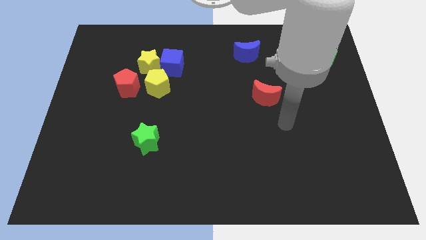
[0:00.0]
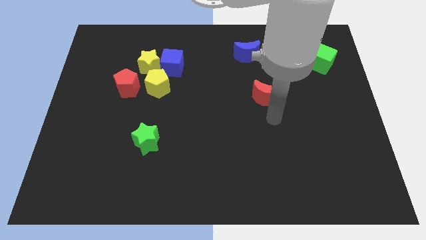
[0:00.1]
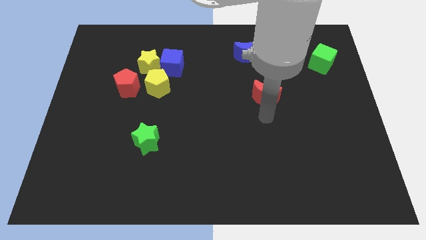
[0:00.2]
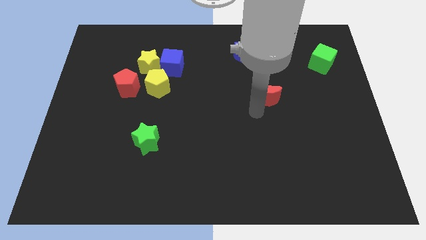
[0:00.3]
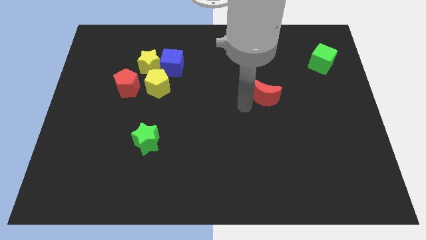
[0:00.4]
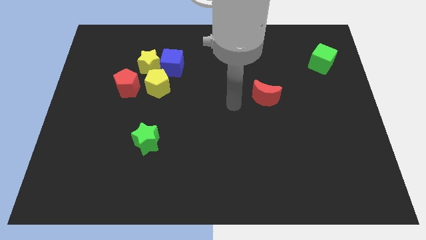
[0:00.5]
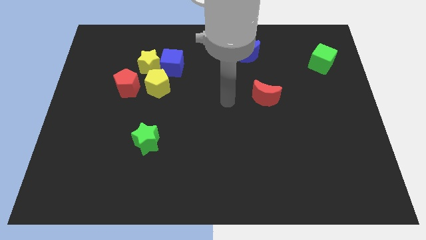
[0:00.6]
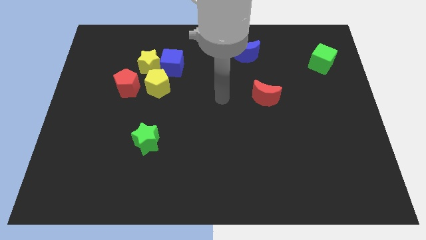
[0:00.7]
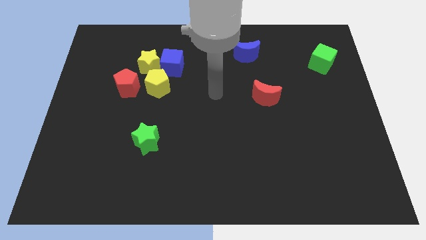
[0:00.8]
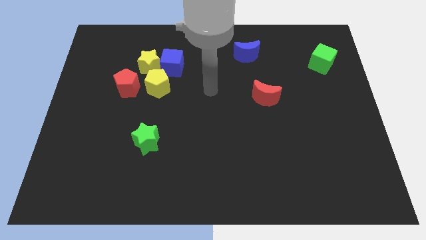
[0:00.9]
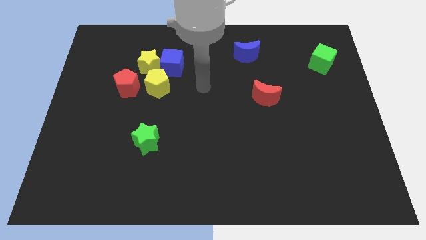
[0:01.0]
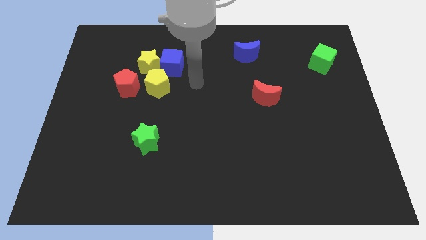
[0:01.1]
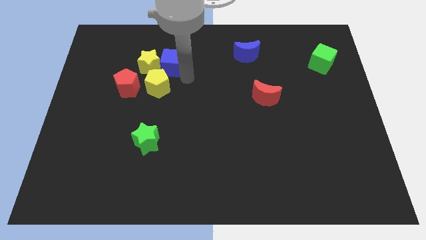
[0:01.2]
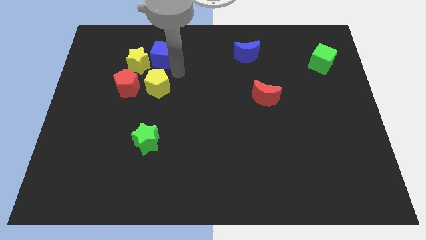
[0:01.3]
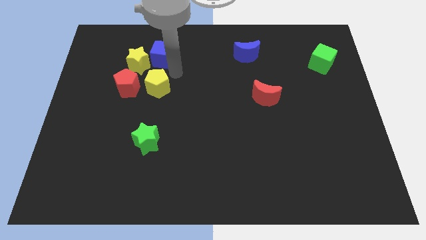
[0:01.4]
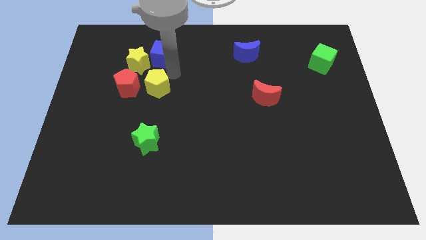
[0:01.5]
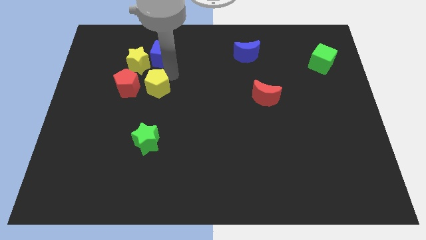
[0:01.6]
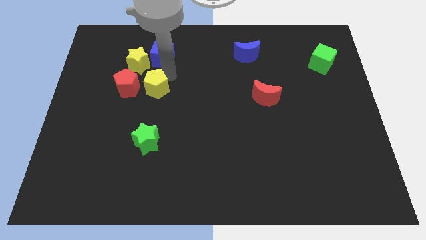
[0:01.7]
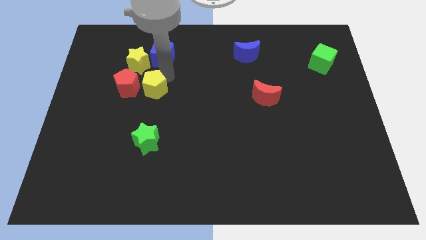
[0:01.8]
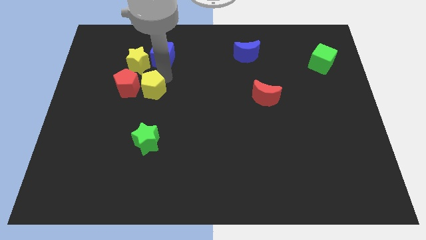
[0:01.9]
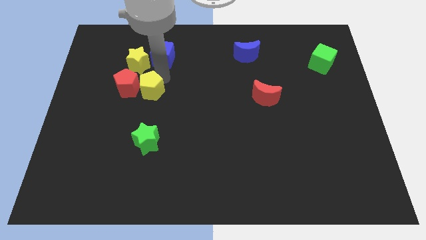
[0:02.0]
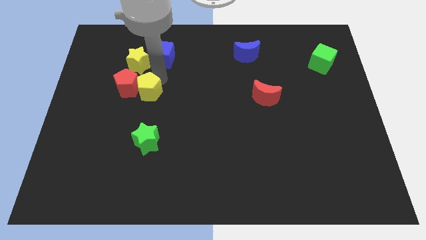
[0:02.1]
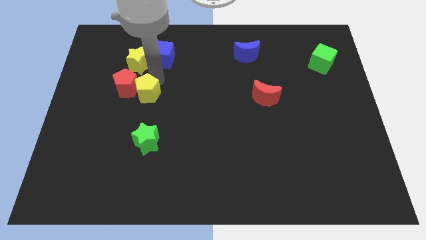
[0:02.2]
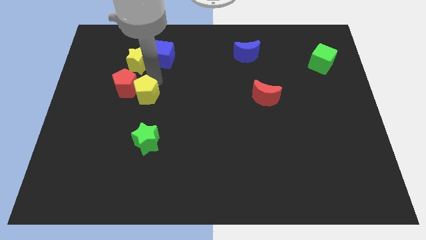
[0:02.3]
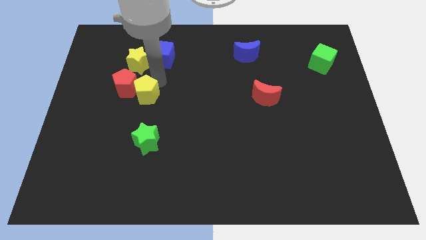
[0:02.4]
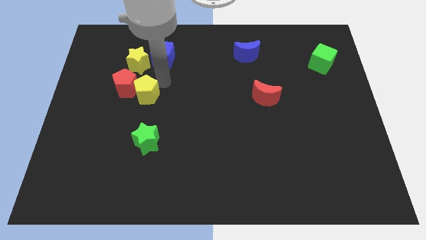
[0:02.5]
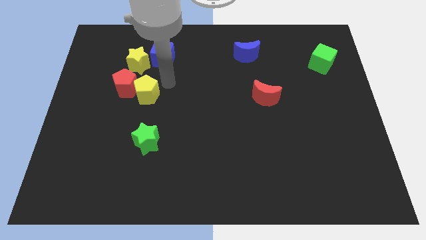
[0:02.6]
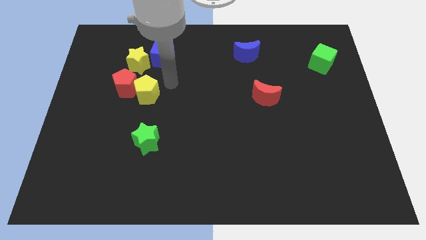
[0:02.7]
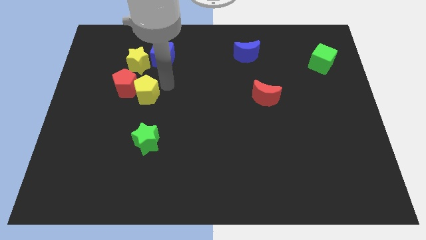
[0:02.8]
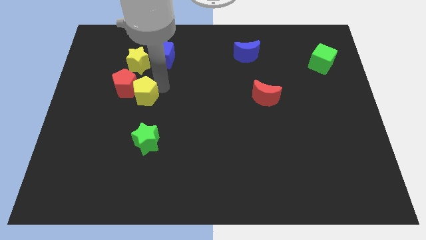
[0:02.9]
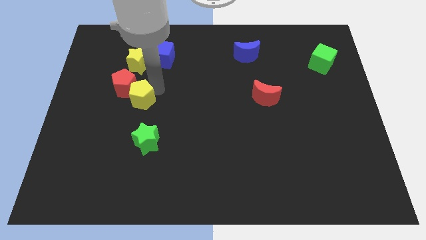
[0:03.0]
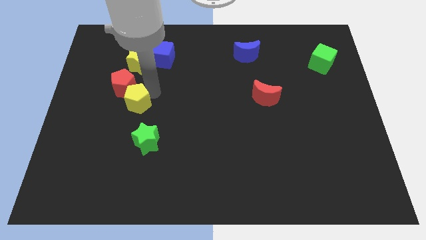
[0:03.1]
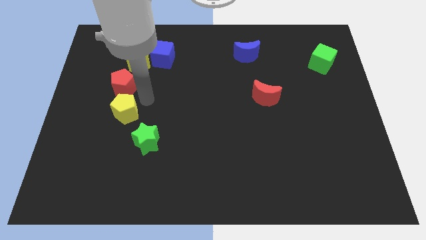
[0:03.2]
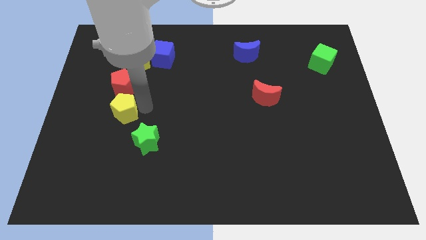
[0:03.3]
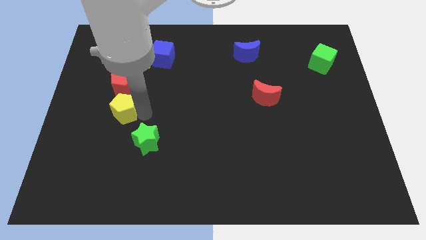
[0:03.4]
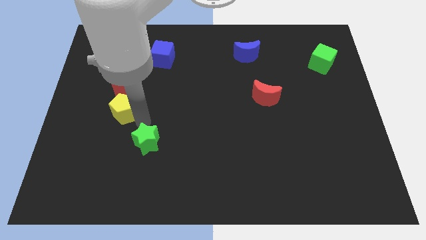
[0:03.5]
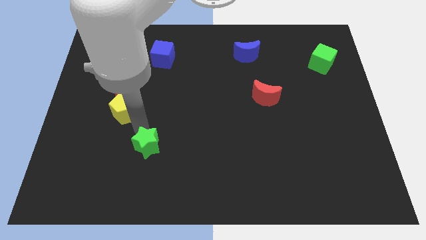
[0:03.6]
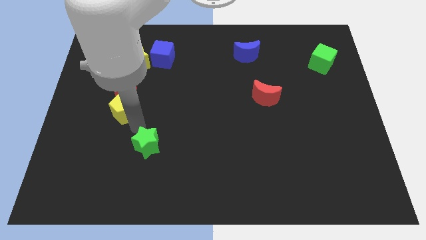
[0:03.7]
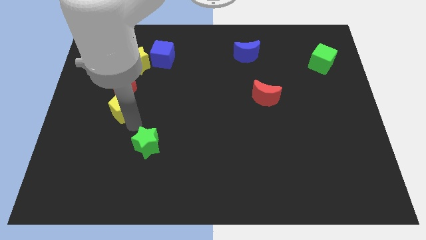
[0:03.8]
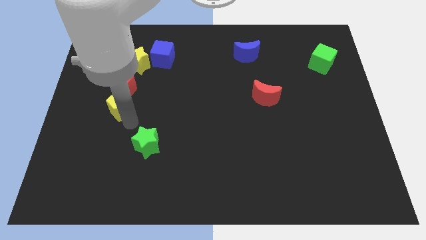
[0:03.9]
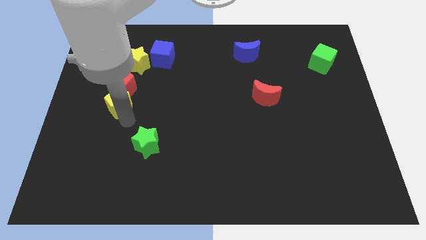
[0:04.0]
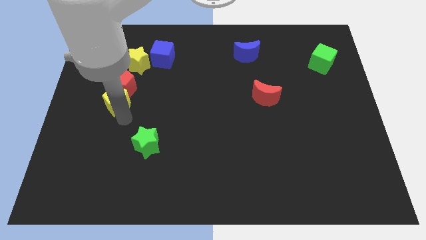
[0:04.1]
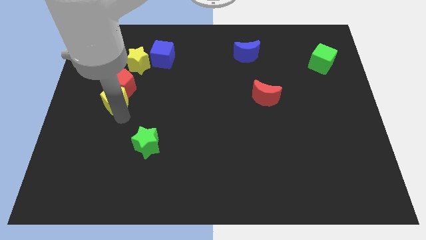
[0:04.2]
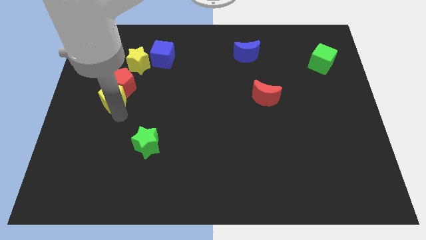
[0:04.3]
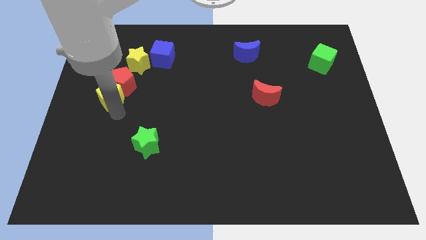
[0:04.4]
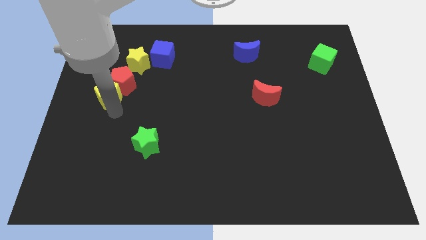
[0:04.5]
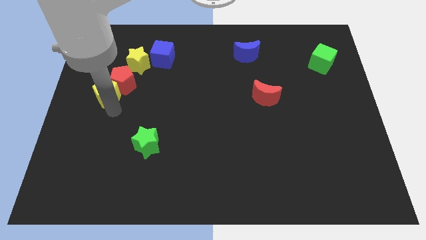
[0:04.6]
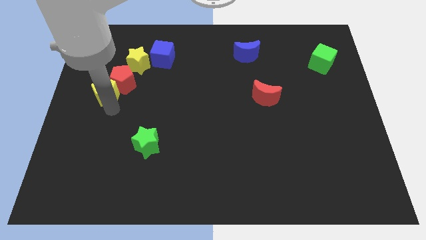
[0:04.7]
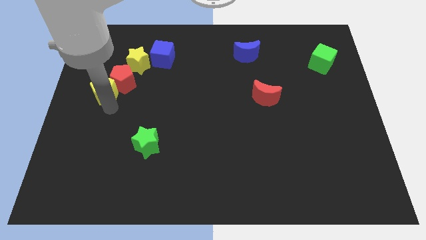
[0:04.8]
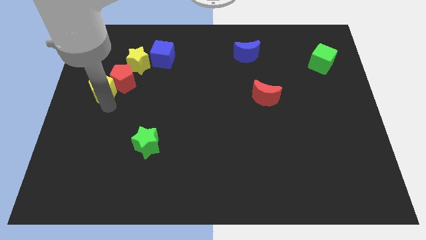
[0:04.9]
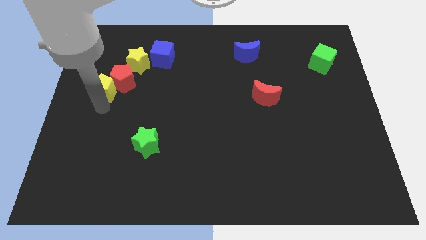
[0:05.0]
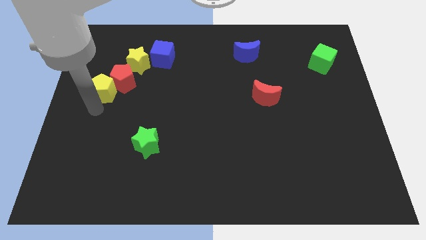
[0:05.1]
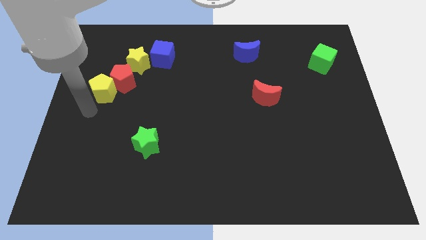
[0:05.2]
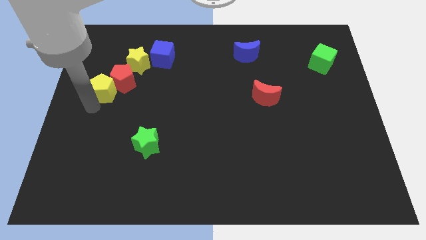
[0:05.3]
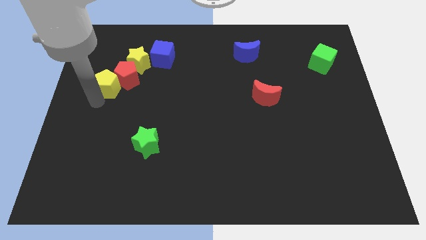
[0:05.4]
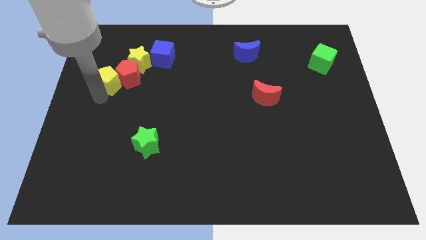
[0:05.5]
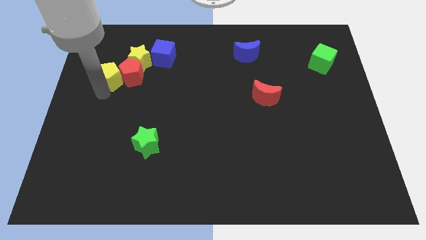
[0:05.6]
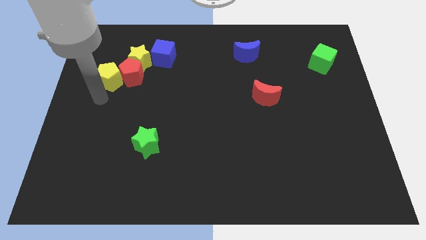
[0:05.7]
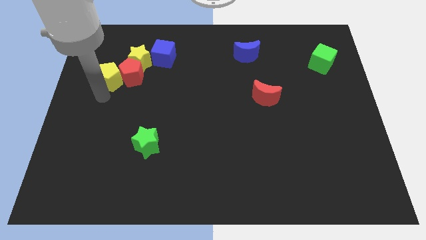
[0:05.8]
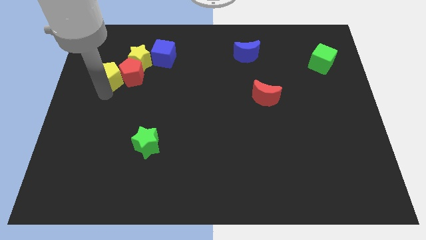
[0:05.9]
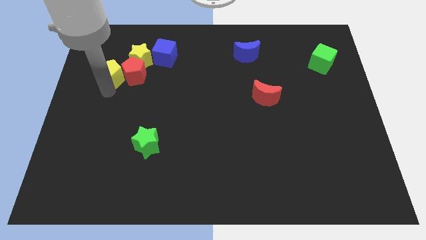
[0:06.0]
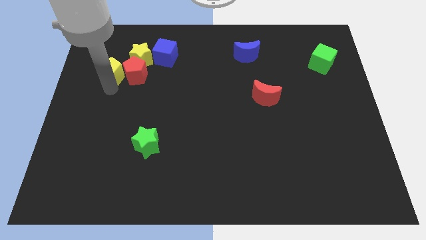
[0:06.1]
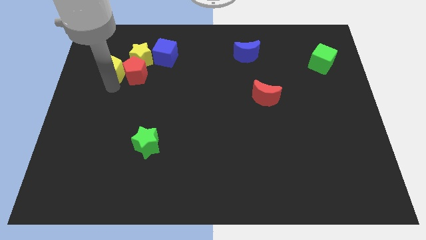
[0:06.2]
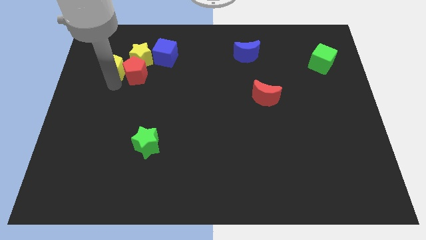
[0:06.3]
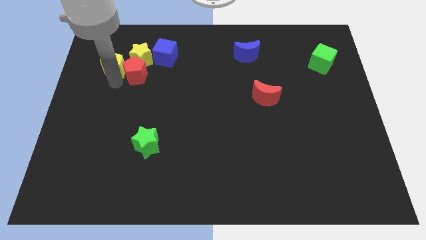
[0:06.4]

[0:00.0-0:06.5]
slide the yellow pentagon to the left of the blue cube
